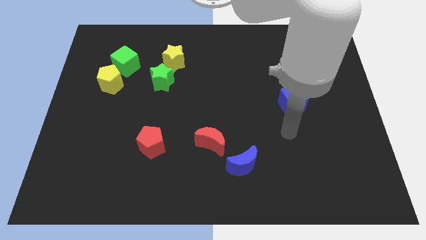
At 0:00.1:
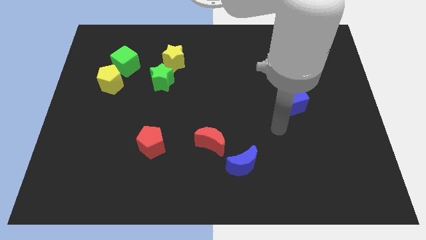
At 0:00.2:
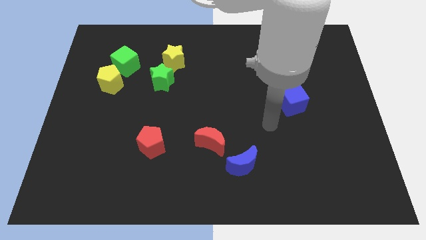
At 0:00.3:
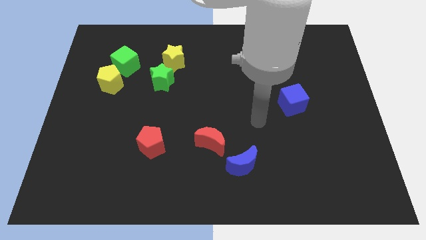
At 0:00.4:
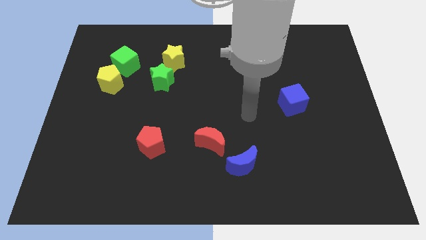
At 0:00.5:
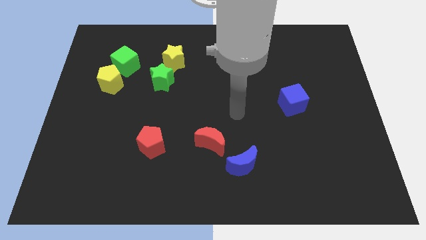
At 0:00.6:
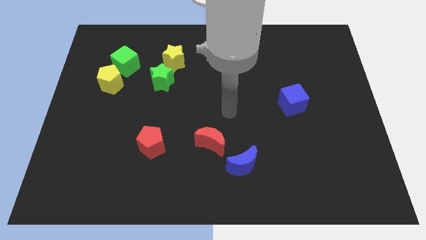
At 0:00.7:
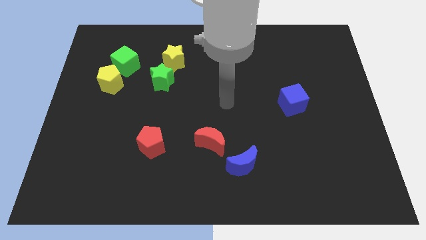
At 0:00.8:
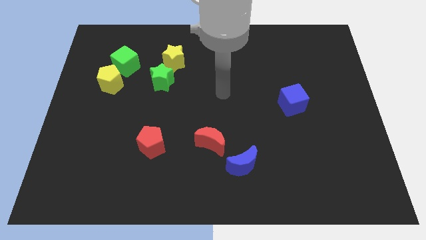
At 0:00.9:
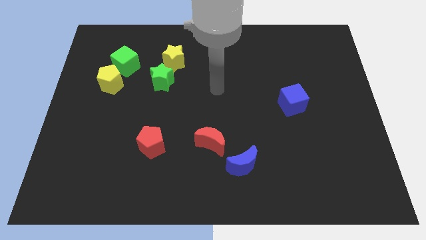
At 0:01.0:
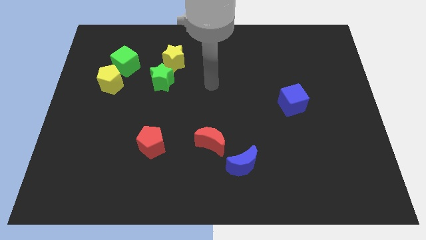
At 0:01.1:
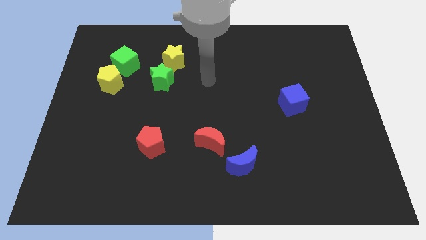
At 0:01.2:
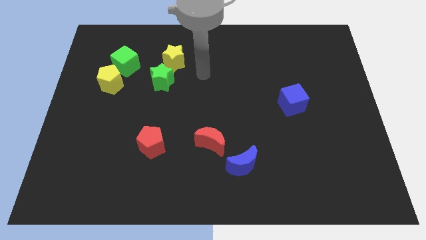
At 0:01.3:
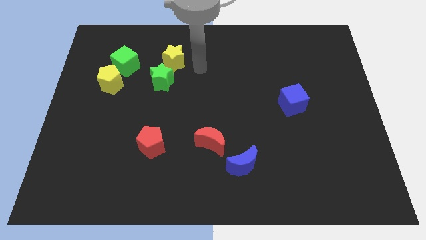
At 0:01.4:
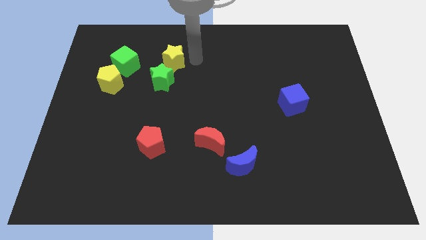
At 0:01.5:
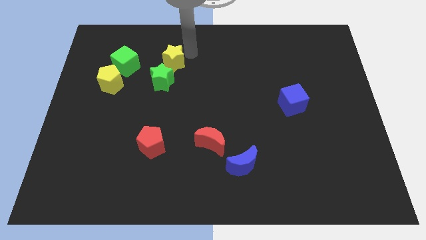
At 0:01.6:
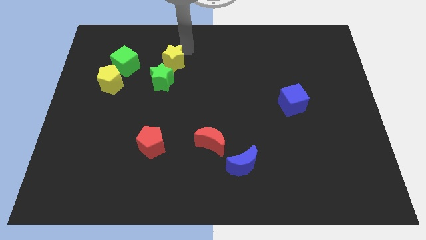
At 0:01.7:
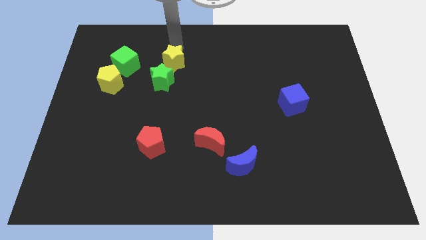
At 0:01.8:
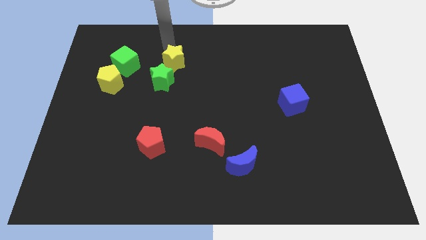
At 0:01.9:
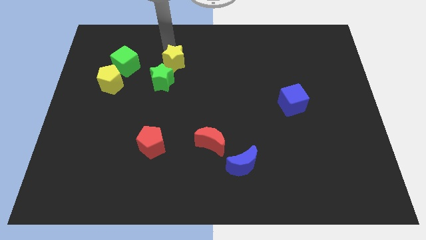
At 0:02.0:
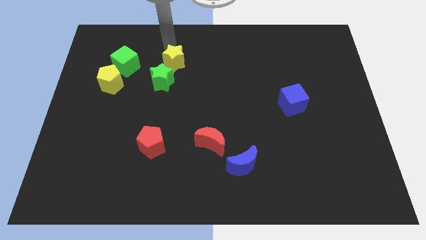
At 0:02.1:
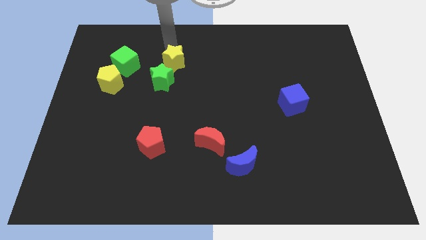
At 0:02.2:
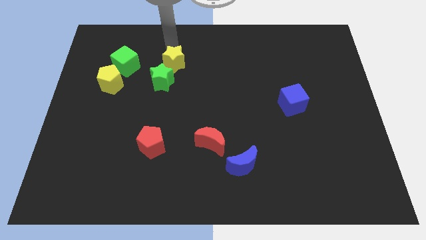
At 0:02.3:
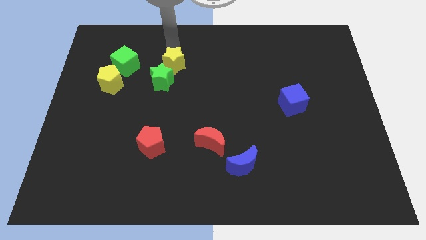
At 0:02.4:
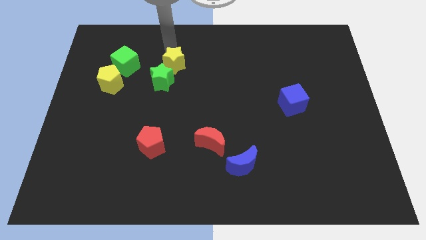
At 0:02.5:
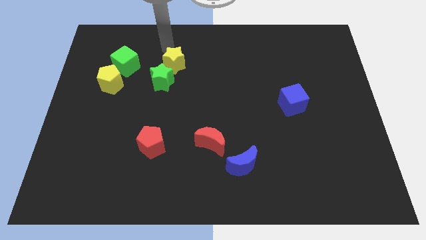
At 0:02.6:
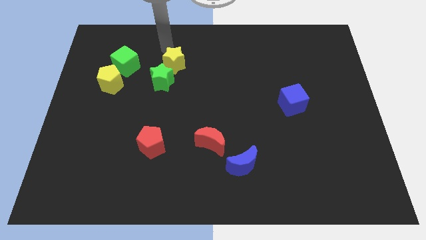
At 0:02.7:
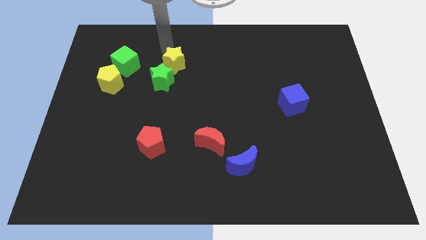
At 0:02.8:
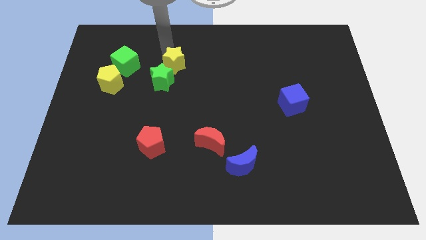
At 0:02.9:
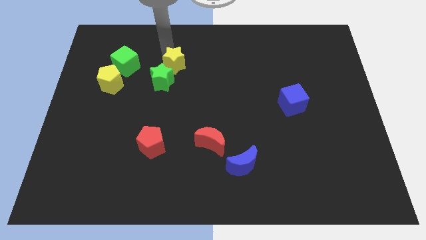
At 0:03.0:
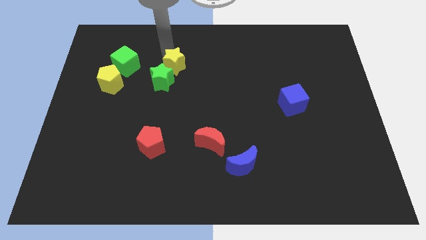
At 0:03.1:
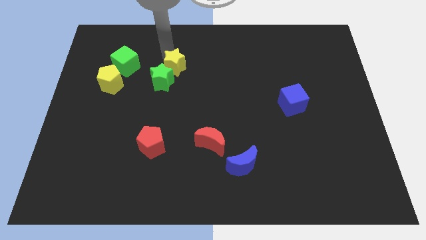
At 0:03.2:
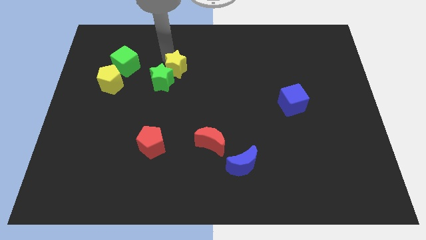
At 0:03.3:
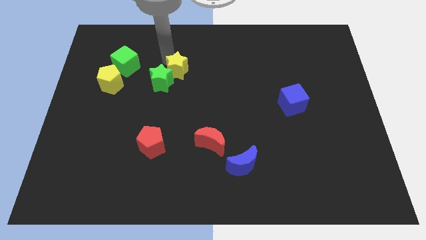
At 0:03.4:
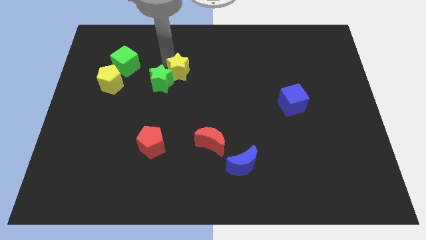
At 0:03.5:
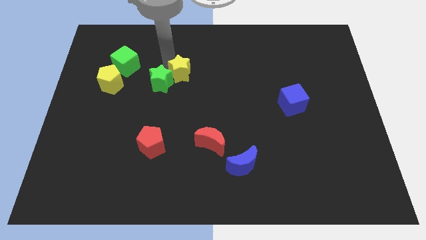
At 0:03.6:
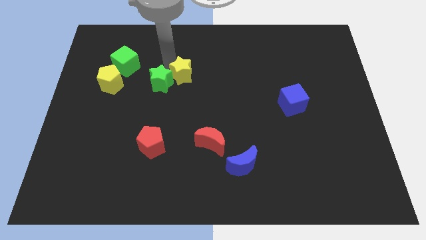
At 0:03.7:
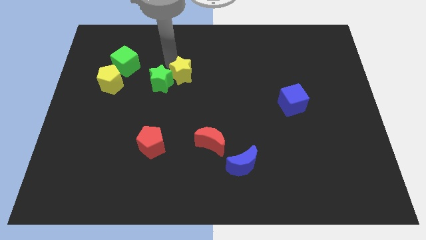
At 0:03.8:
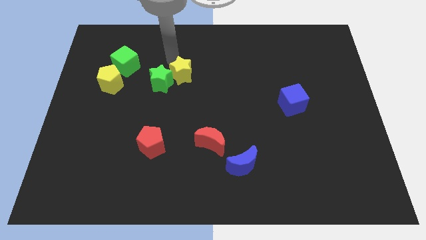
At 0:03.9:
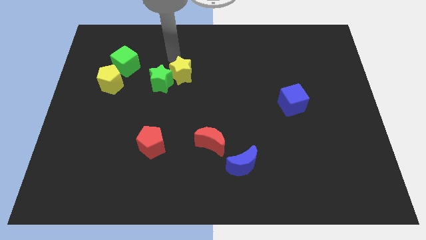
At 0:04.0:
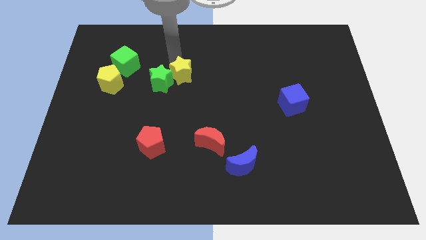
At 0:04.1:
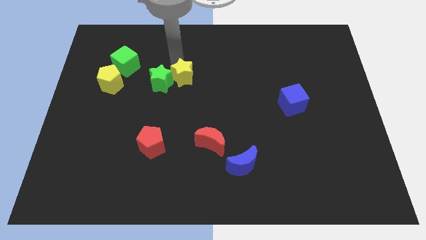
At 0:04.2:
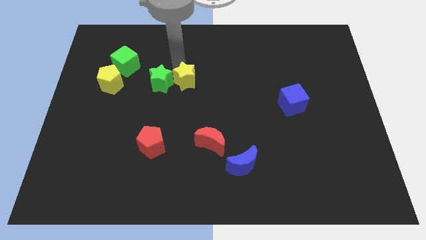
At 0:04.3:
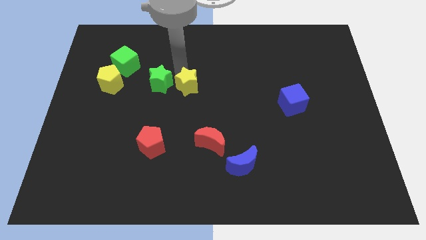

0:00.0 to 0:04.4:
slightly move the yellow star diagonally down and right

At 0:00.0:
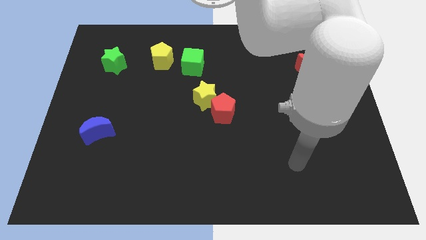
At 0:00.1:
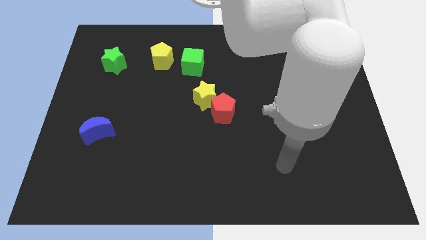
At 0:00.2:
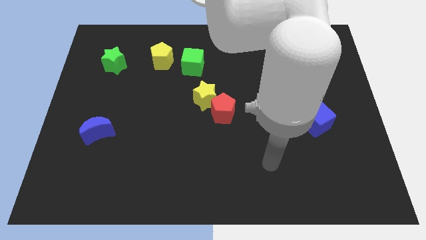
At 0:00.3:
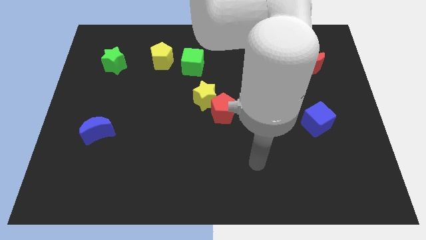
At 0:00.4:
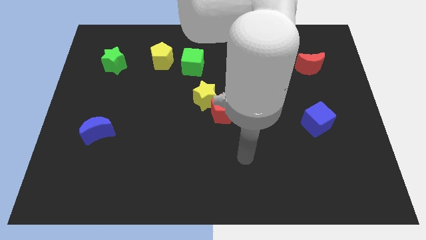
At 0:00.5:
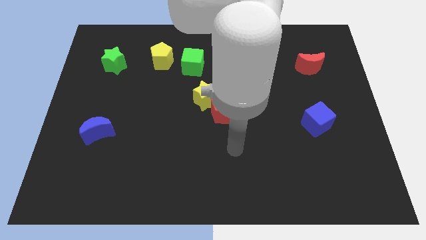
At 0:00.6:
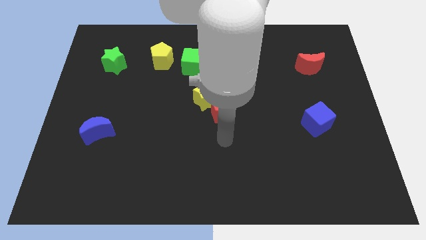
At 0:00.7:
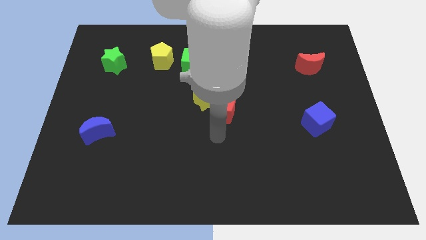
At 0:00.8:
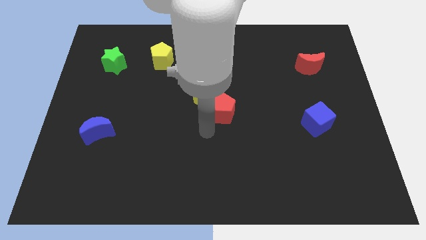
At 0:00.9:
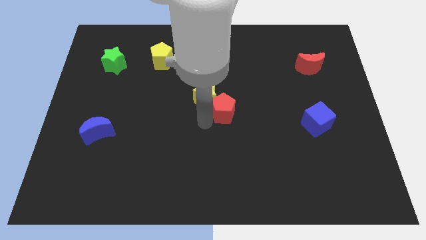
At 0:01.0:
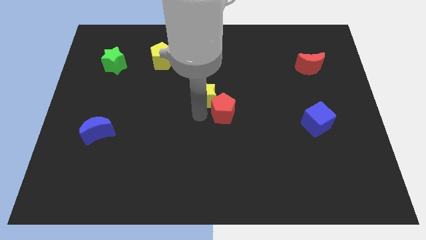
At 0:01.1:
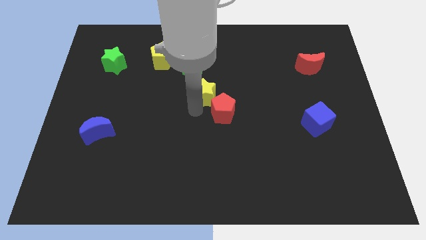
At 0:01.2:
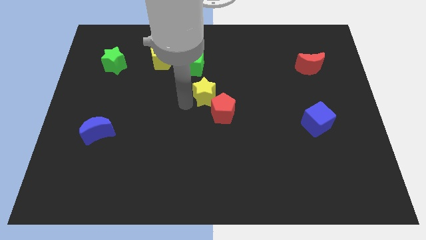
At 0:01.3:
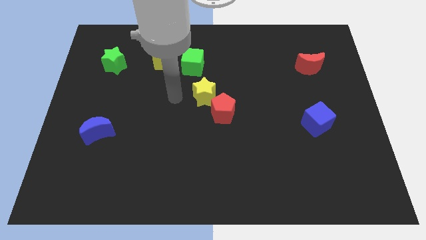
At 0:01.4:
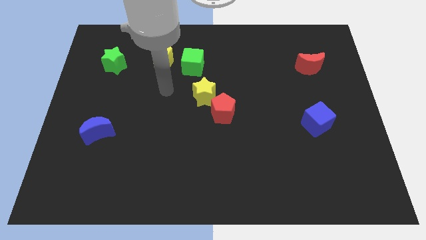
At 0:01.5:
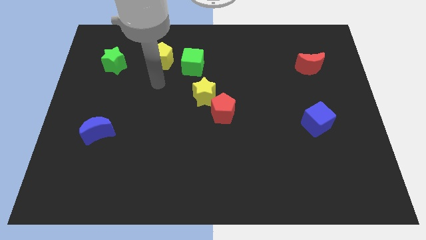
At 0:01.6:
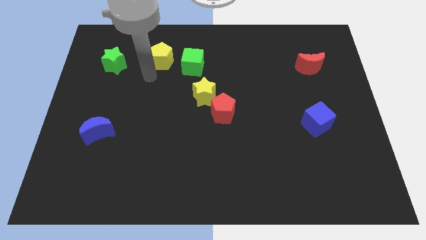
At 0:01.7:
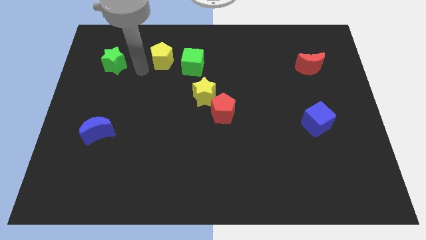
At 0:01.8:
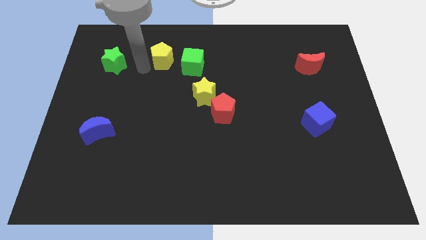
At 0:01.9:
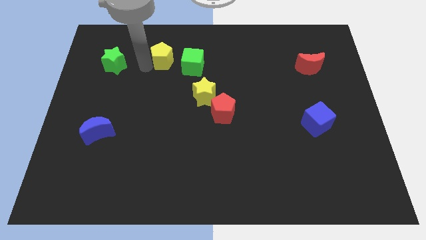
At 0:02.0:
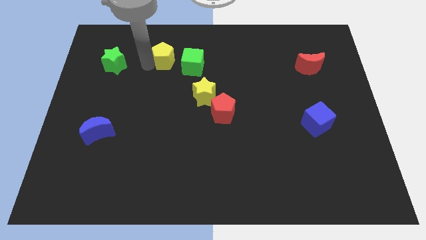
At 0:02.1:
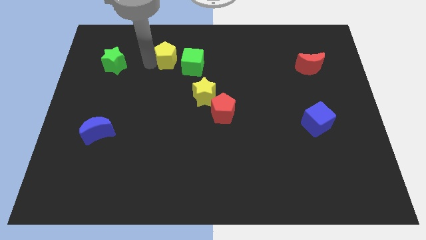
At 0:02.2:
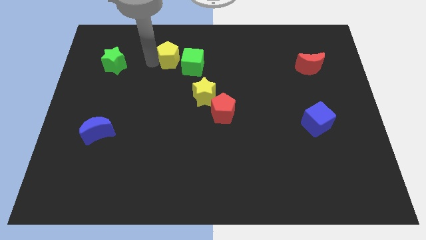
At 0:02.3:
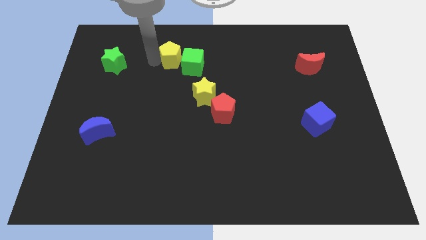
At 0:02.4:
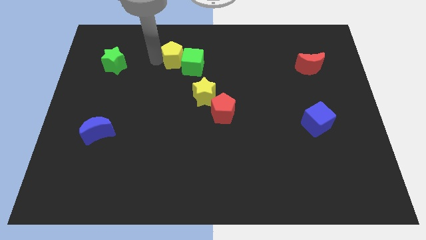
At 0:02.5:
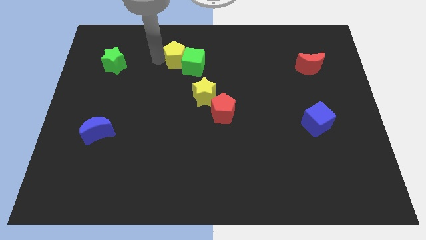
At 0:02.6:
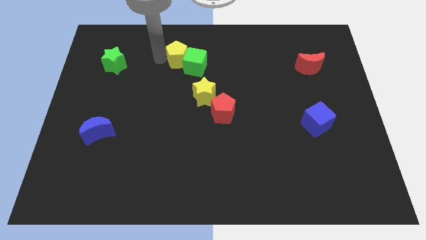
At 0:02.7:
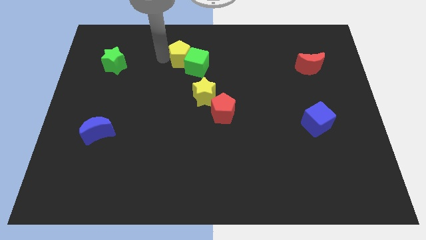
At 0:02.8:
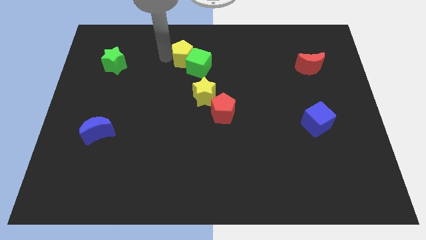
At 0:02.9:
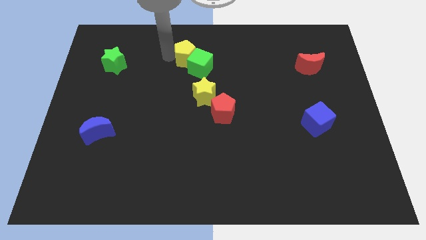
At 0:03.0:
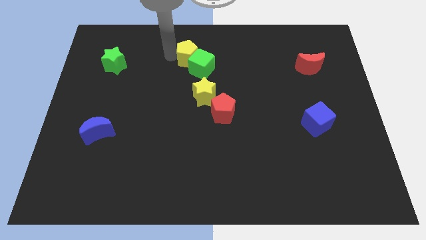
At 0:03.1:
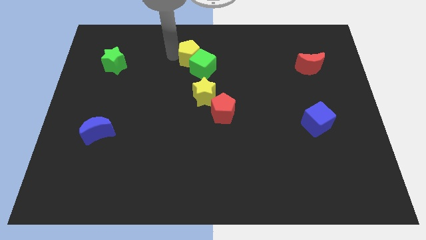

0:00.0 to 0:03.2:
push the yellow pentagon to the right somewhat

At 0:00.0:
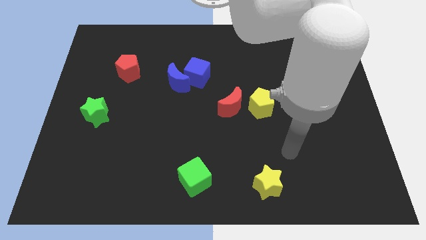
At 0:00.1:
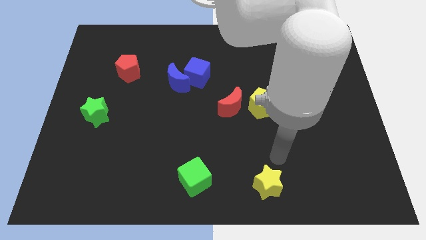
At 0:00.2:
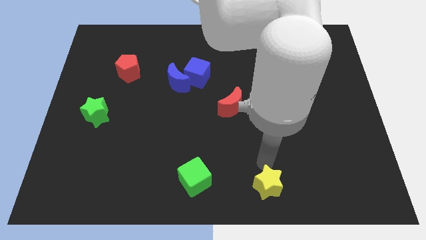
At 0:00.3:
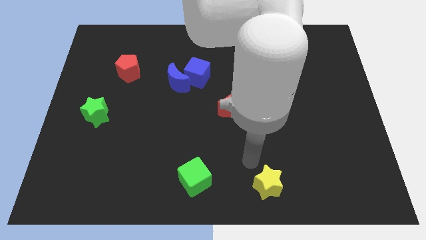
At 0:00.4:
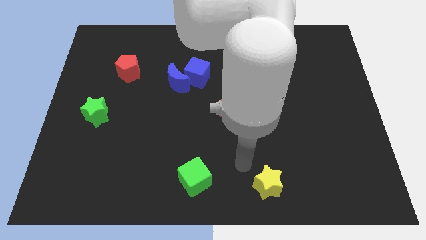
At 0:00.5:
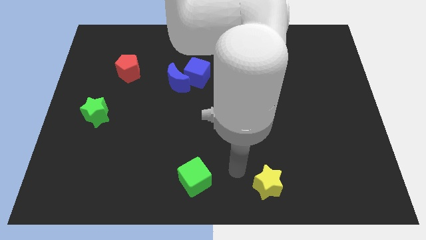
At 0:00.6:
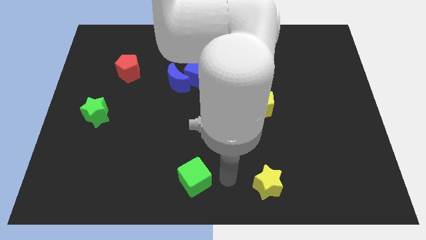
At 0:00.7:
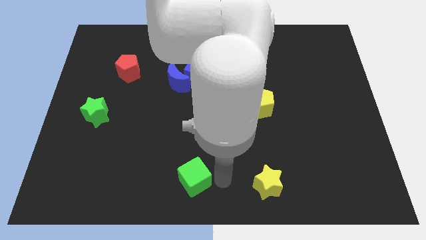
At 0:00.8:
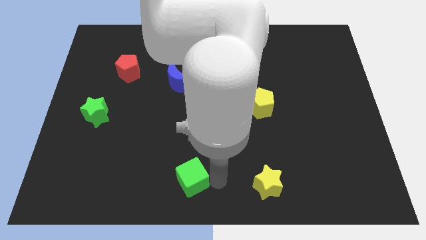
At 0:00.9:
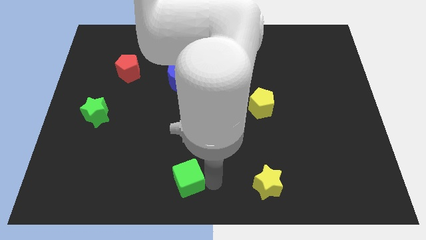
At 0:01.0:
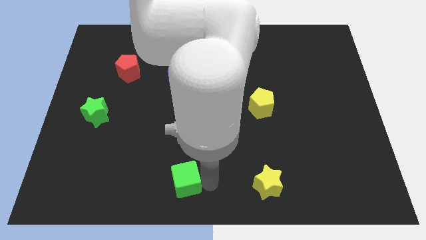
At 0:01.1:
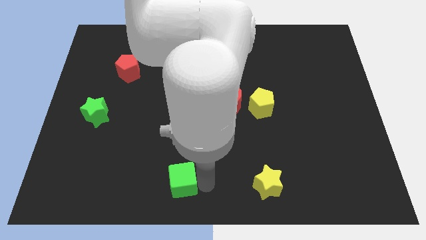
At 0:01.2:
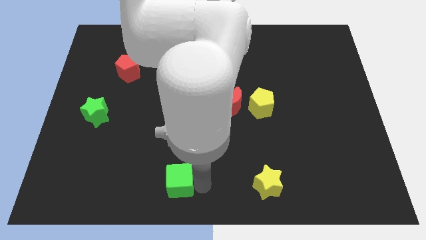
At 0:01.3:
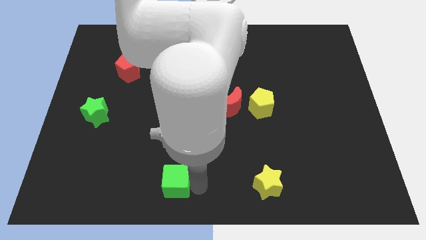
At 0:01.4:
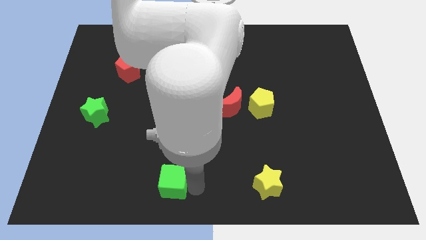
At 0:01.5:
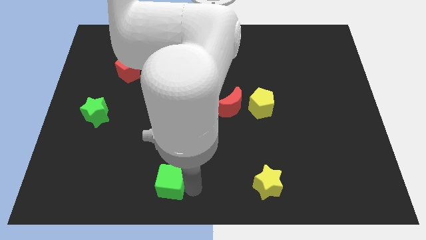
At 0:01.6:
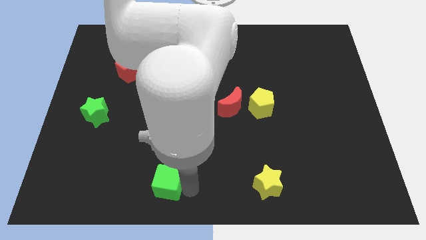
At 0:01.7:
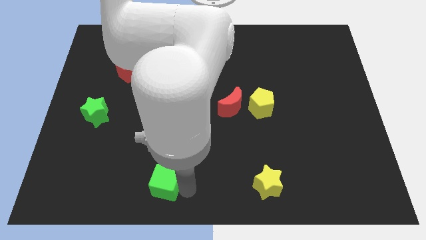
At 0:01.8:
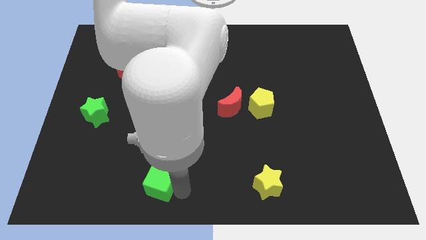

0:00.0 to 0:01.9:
slide the green cube to the left a little bit
